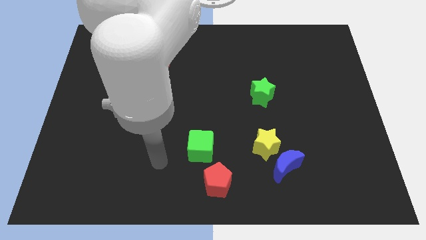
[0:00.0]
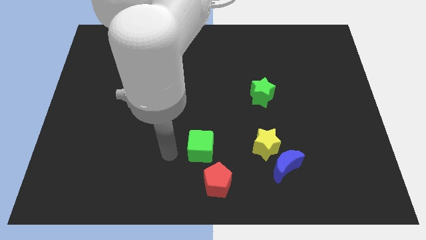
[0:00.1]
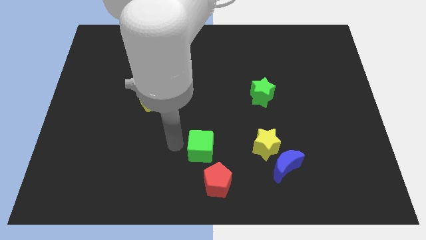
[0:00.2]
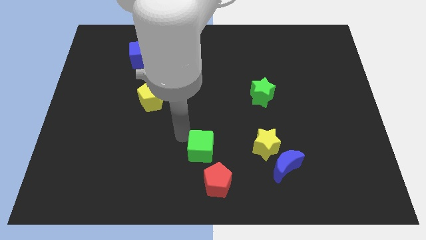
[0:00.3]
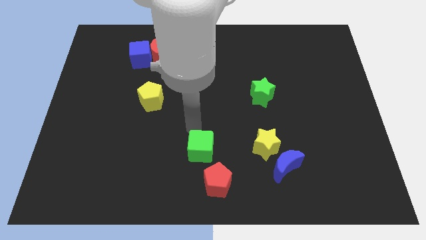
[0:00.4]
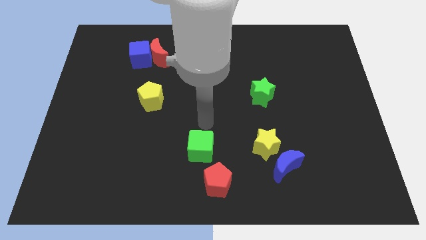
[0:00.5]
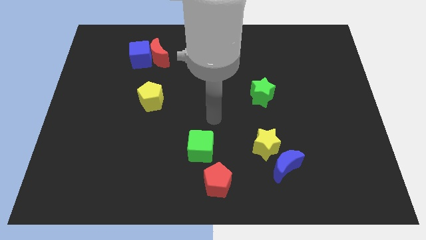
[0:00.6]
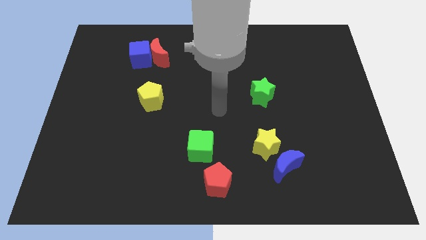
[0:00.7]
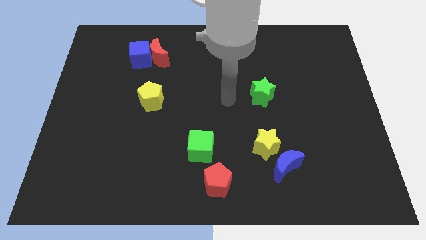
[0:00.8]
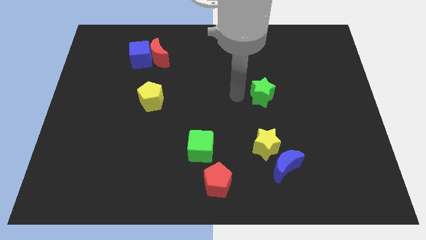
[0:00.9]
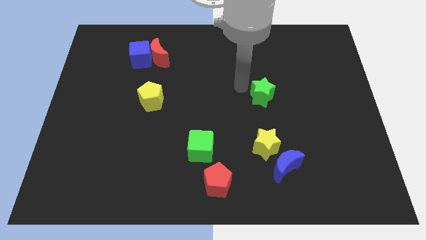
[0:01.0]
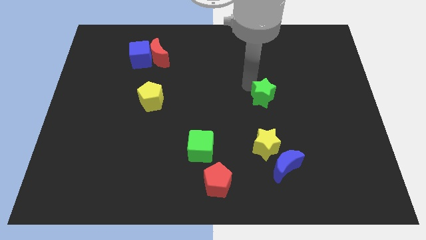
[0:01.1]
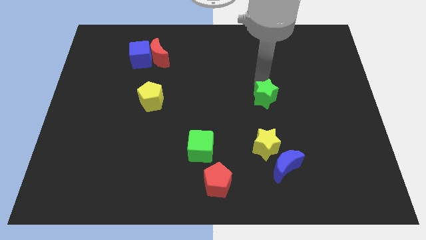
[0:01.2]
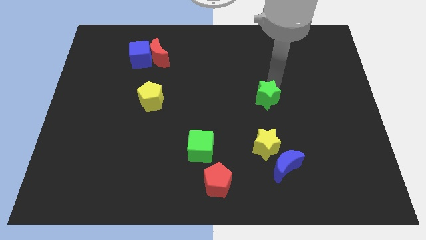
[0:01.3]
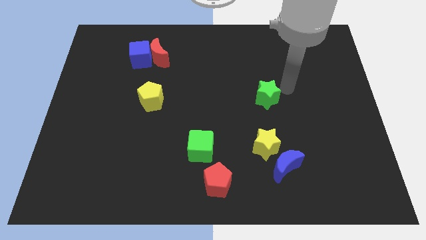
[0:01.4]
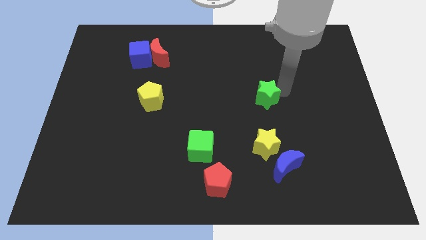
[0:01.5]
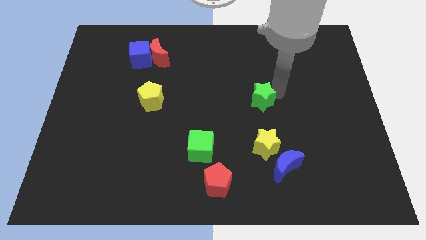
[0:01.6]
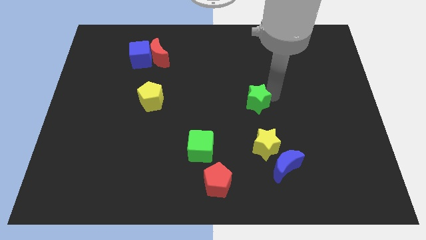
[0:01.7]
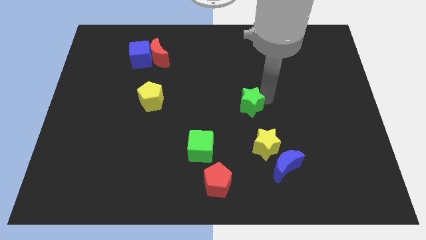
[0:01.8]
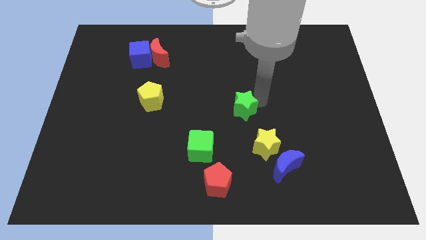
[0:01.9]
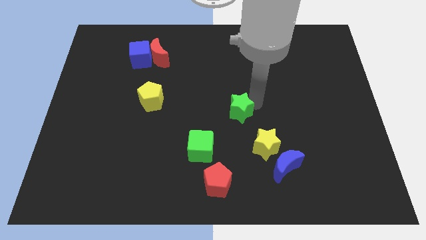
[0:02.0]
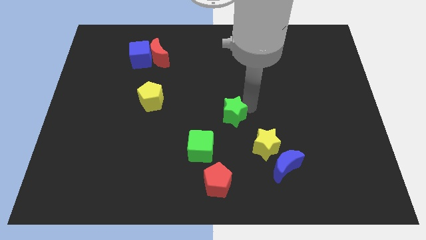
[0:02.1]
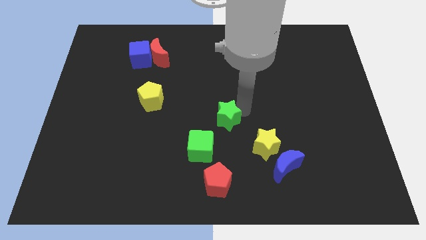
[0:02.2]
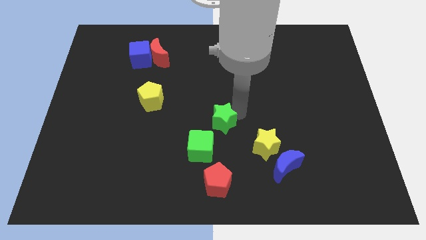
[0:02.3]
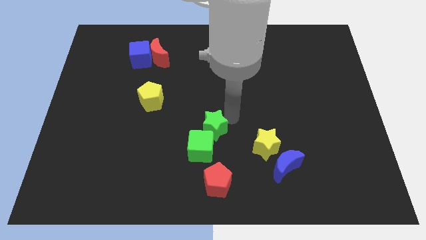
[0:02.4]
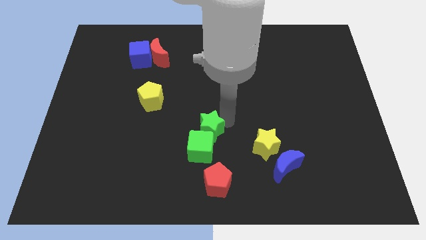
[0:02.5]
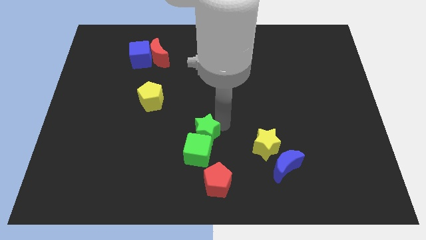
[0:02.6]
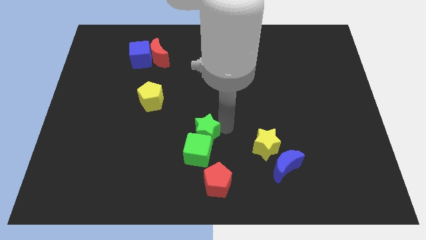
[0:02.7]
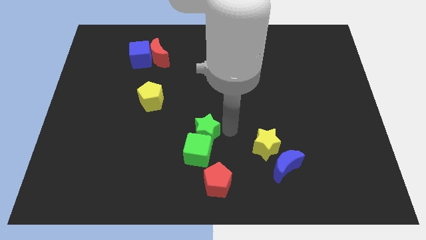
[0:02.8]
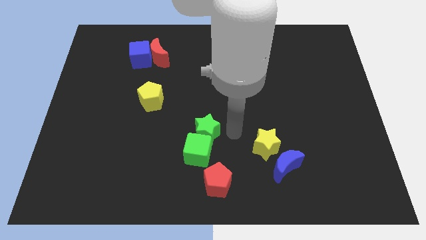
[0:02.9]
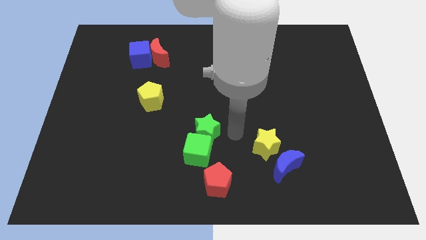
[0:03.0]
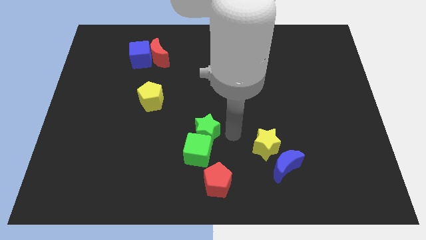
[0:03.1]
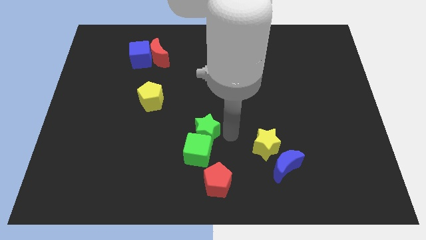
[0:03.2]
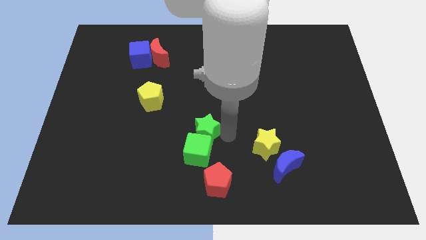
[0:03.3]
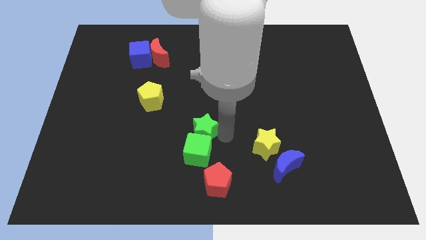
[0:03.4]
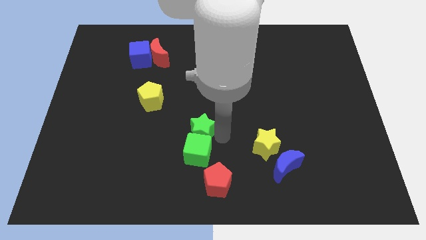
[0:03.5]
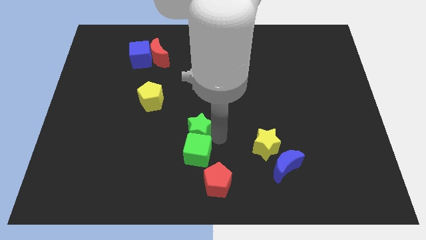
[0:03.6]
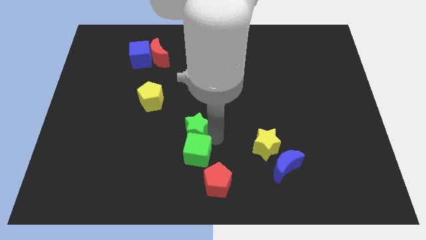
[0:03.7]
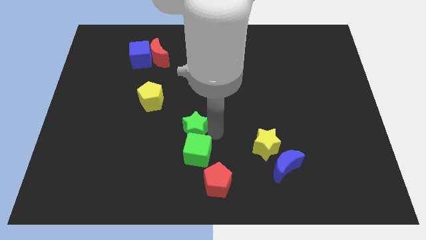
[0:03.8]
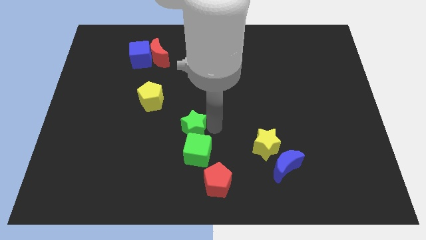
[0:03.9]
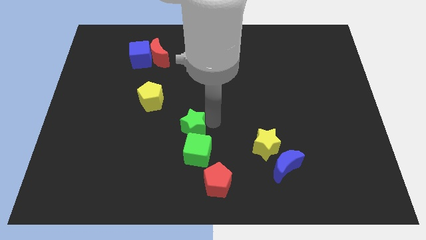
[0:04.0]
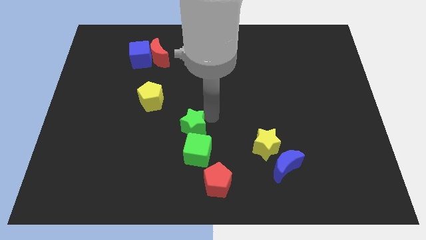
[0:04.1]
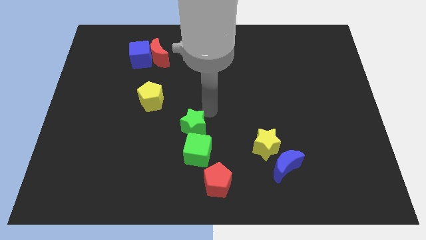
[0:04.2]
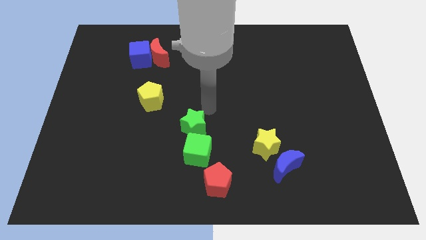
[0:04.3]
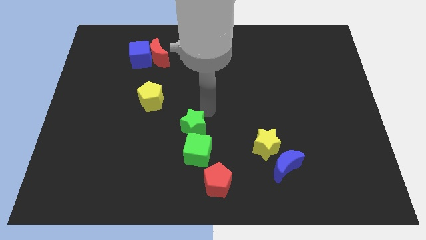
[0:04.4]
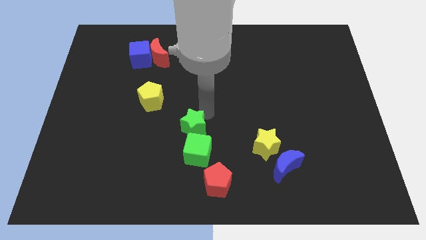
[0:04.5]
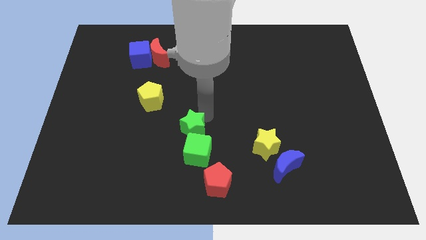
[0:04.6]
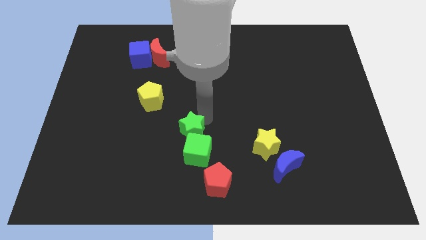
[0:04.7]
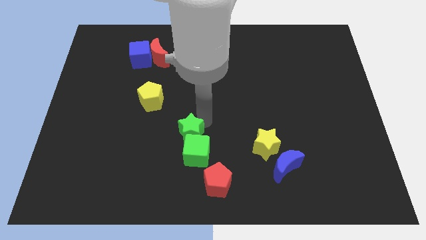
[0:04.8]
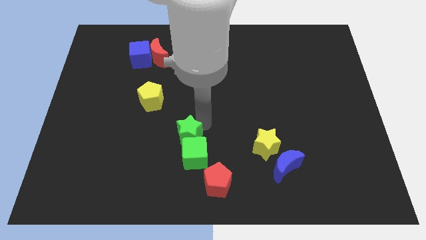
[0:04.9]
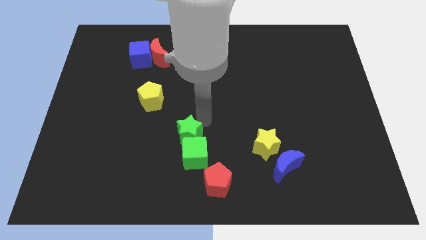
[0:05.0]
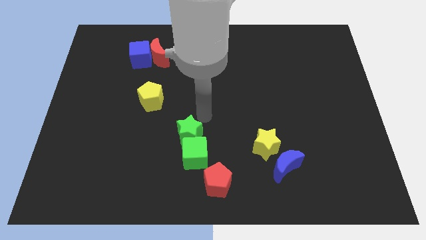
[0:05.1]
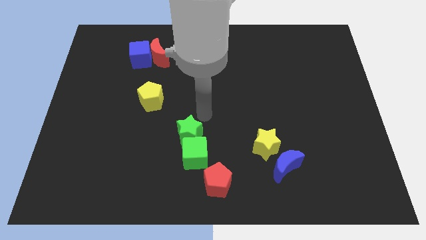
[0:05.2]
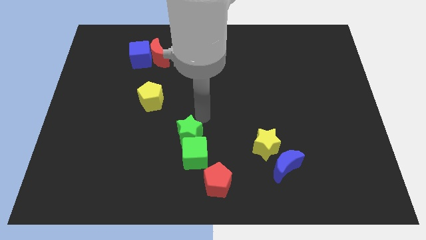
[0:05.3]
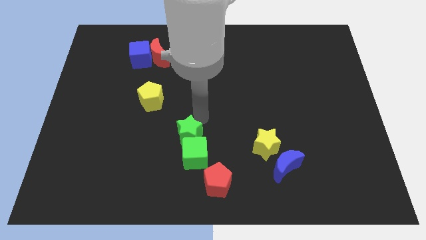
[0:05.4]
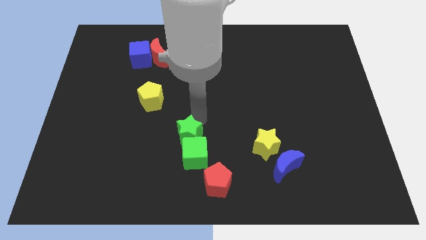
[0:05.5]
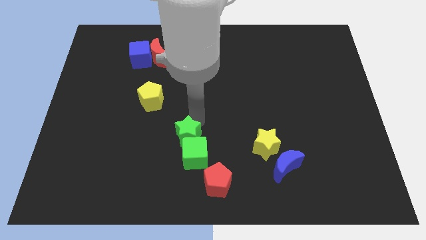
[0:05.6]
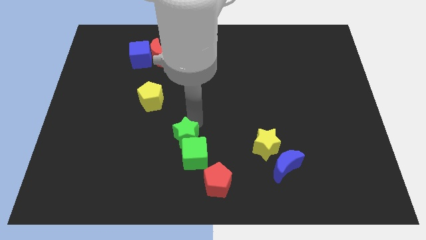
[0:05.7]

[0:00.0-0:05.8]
slide the green star down and to the left diagonally

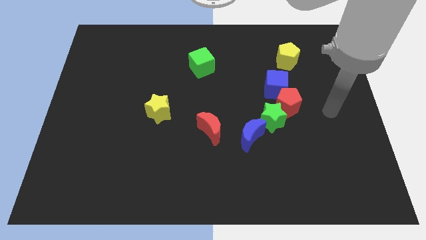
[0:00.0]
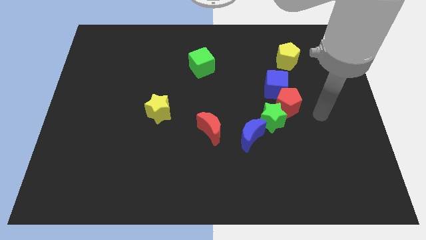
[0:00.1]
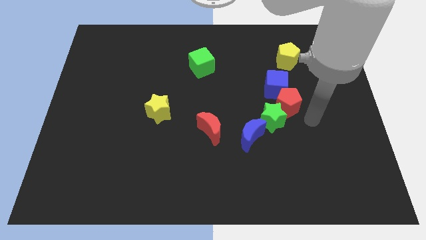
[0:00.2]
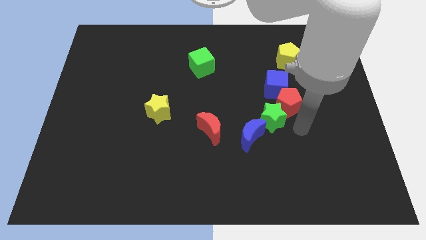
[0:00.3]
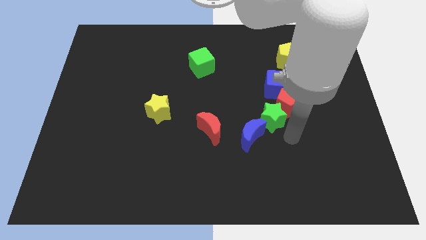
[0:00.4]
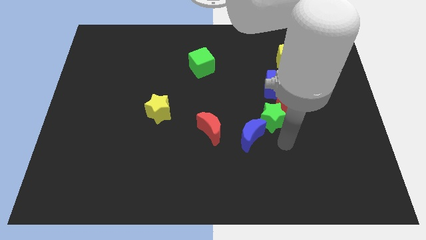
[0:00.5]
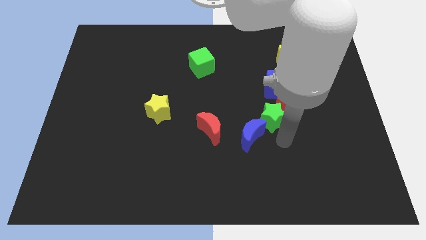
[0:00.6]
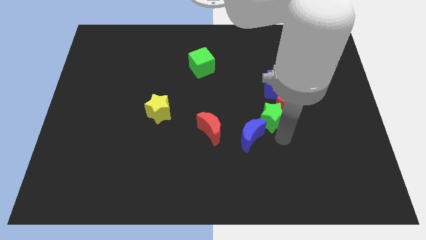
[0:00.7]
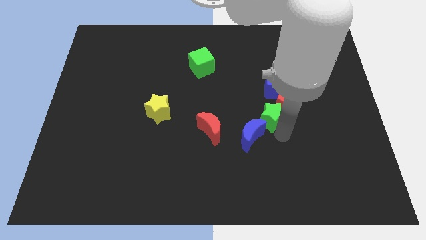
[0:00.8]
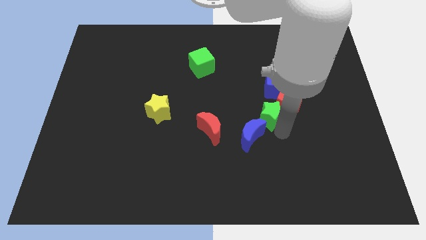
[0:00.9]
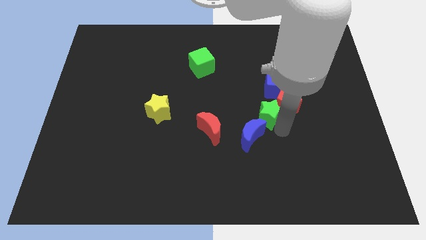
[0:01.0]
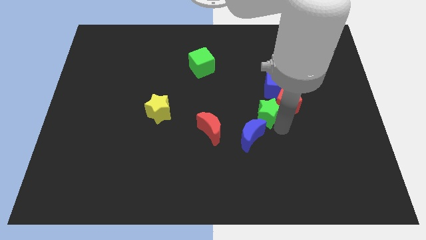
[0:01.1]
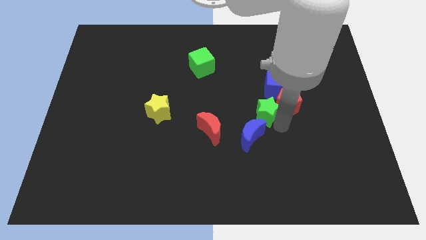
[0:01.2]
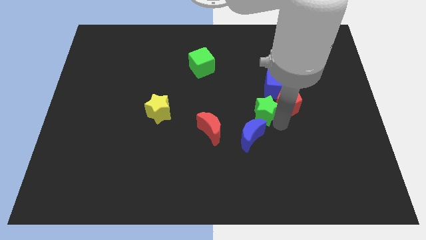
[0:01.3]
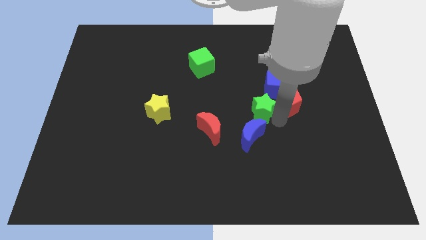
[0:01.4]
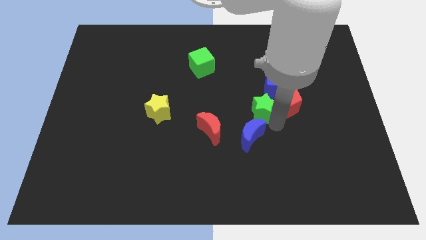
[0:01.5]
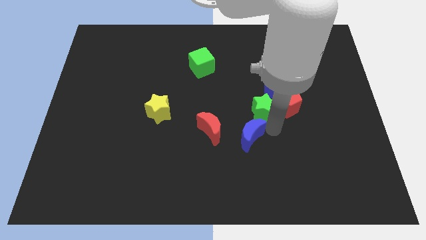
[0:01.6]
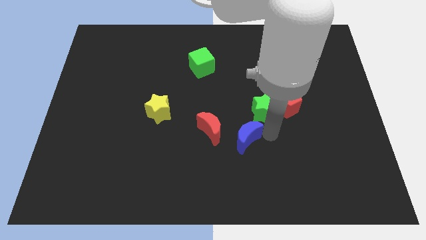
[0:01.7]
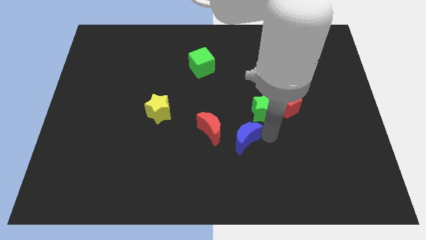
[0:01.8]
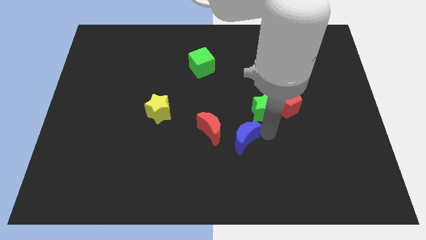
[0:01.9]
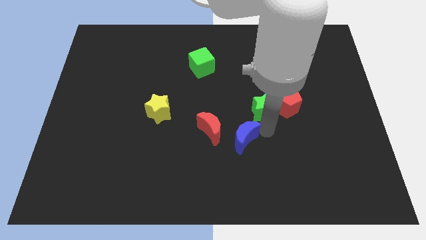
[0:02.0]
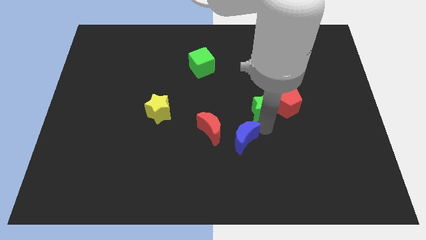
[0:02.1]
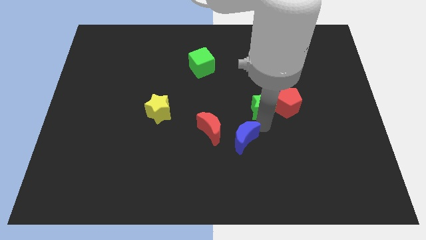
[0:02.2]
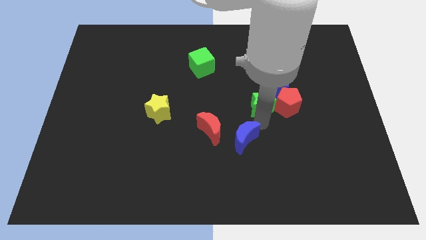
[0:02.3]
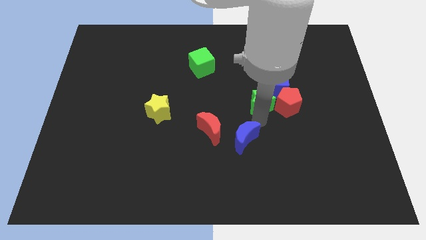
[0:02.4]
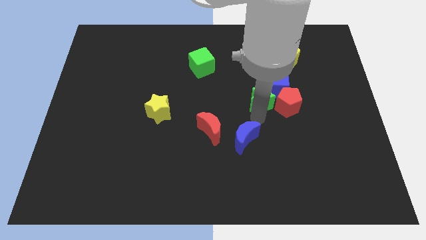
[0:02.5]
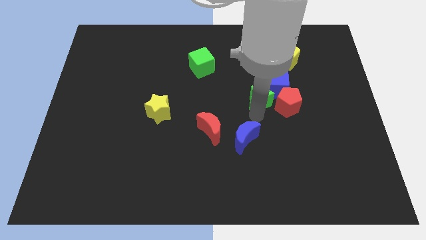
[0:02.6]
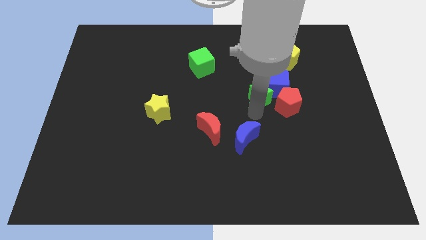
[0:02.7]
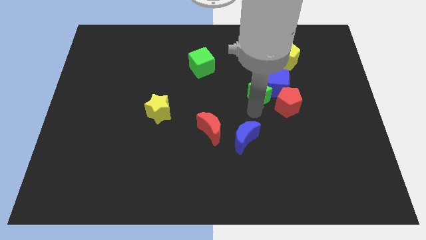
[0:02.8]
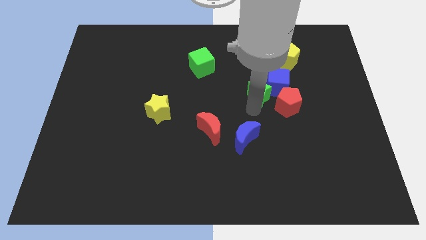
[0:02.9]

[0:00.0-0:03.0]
move the green star up a bit
